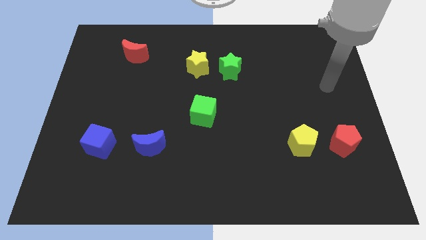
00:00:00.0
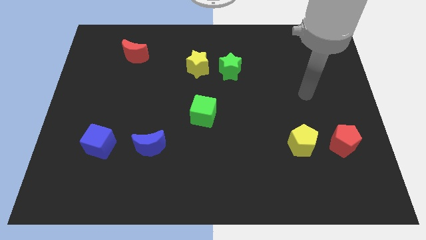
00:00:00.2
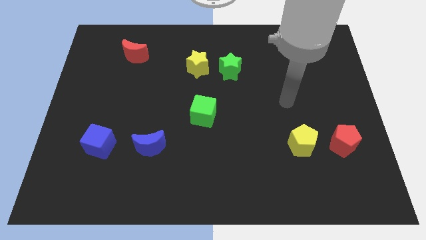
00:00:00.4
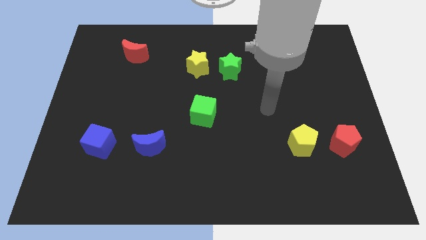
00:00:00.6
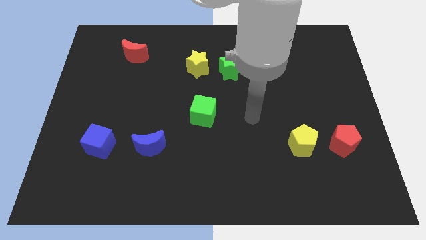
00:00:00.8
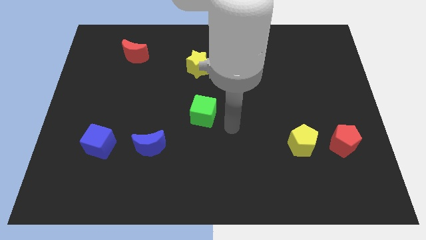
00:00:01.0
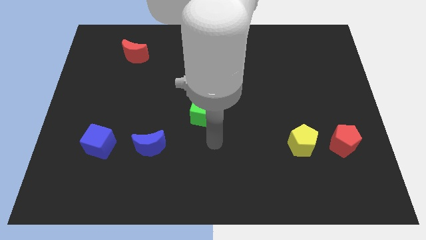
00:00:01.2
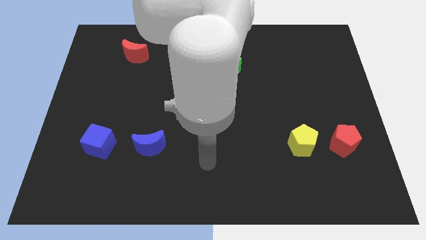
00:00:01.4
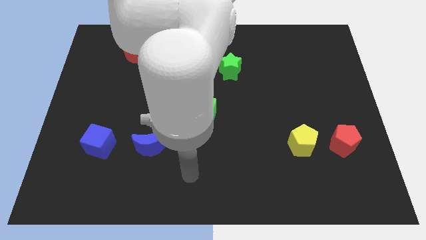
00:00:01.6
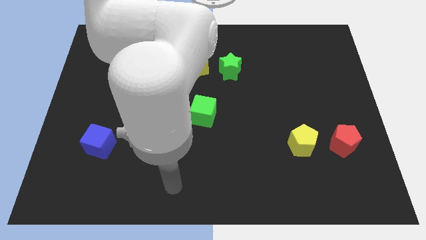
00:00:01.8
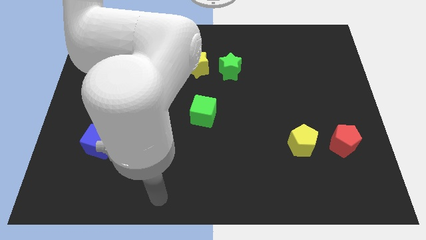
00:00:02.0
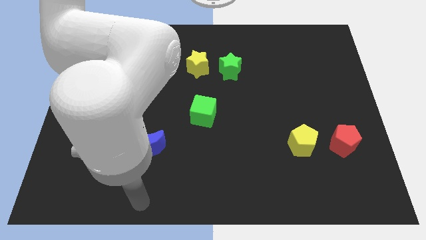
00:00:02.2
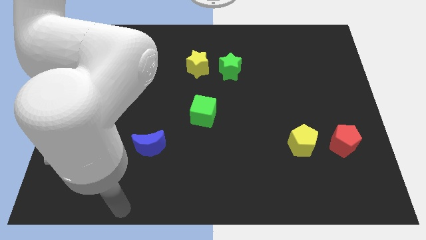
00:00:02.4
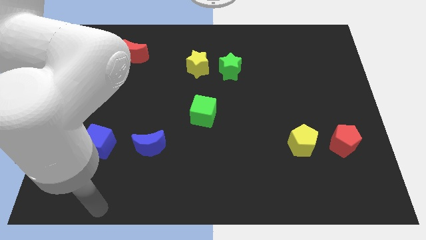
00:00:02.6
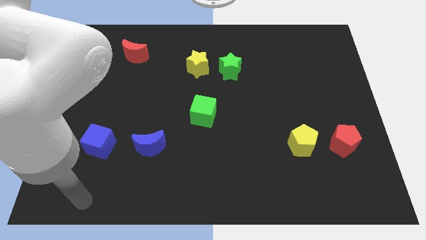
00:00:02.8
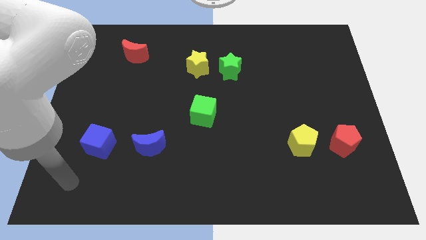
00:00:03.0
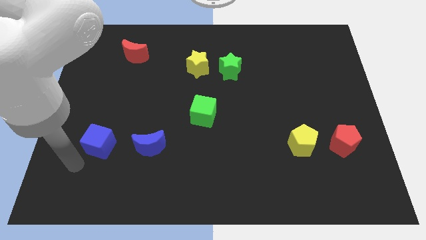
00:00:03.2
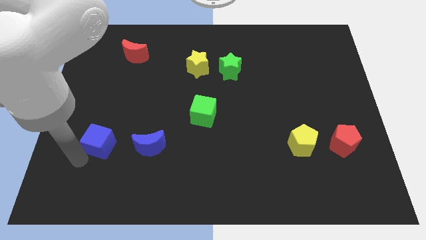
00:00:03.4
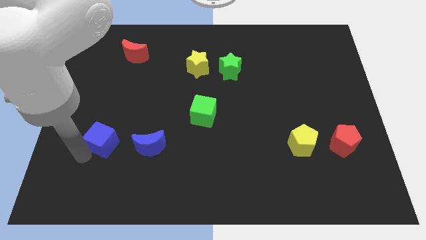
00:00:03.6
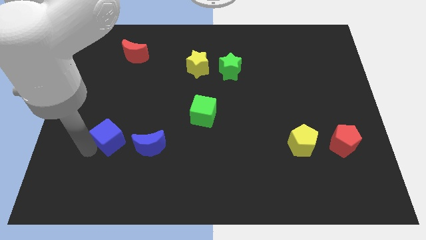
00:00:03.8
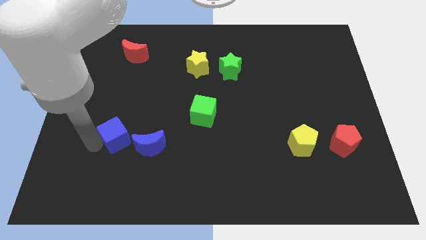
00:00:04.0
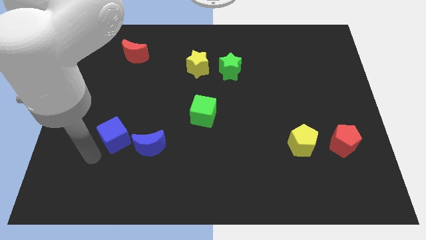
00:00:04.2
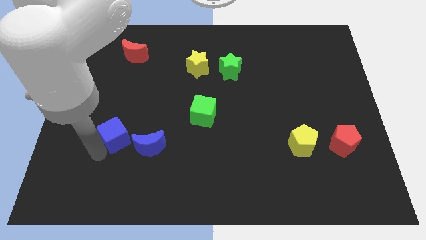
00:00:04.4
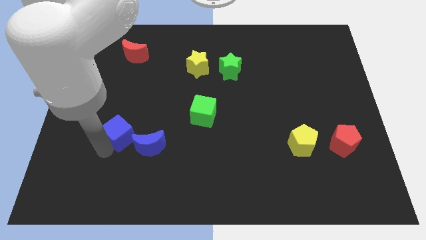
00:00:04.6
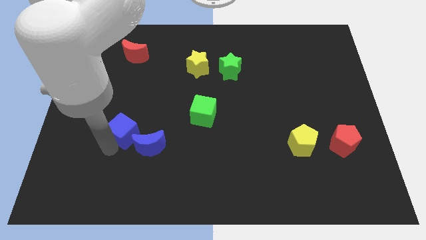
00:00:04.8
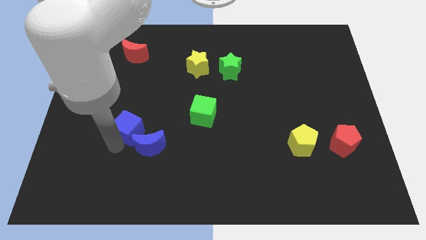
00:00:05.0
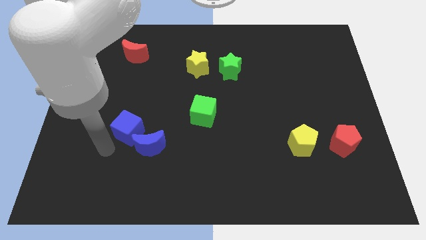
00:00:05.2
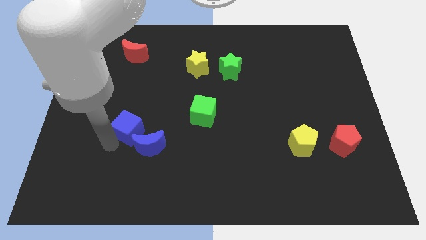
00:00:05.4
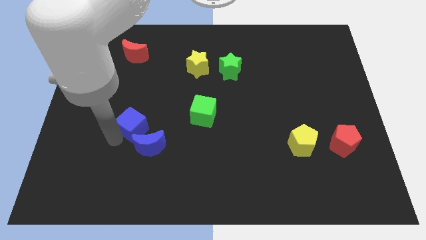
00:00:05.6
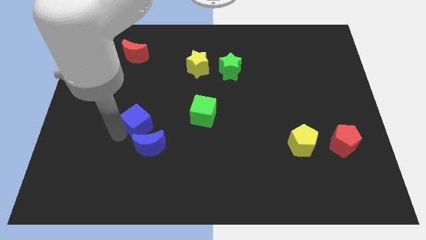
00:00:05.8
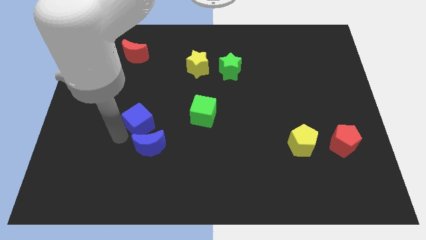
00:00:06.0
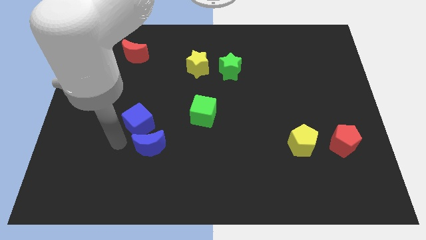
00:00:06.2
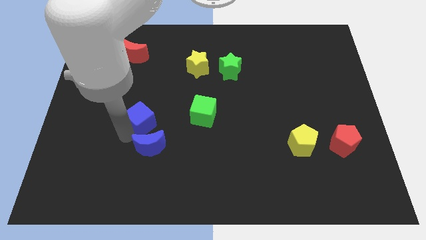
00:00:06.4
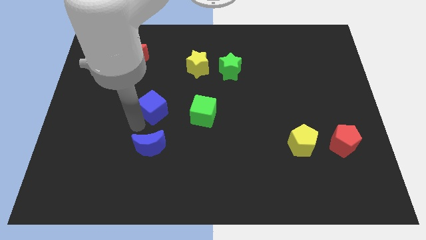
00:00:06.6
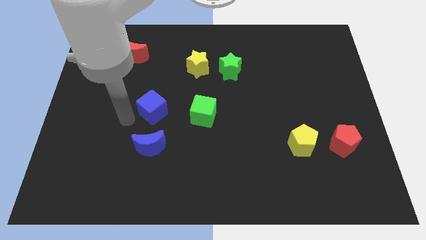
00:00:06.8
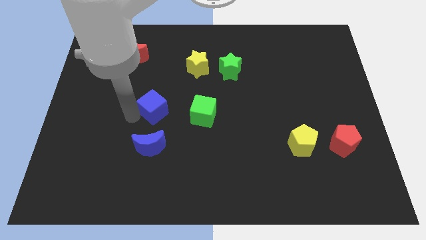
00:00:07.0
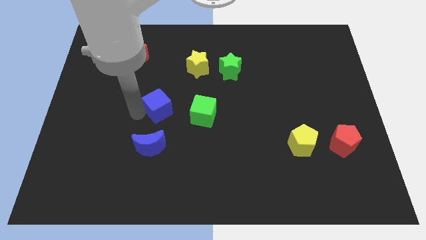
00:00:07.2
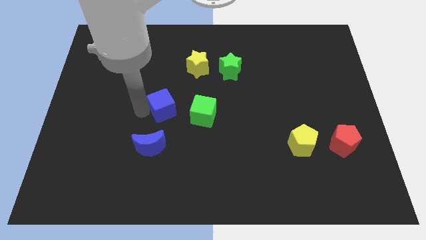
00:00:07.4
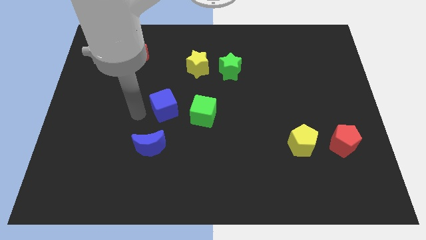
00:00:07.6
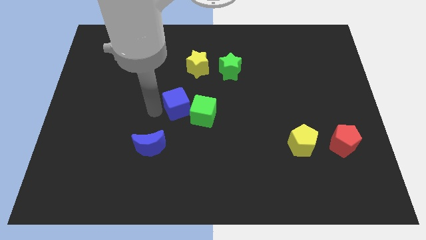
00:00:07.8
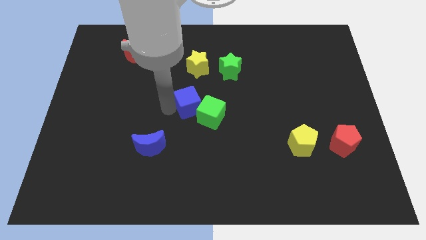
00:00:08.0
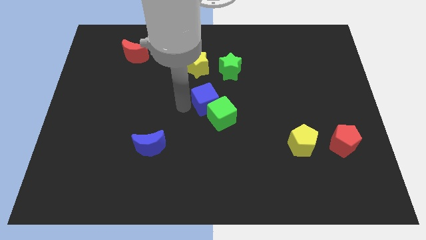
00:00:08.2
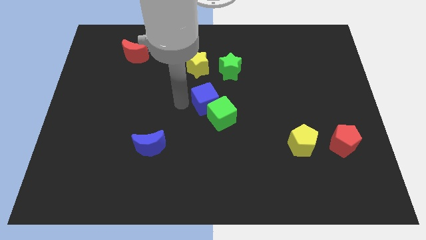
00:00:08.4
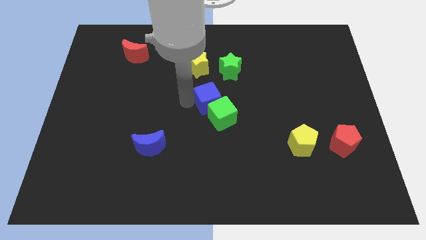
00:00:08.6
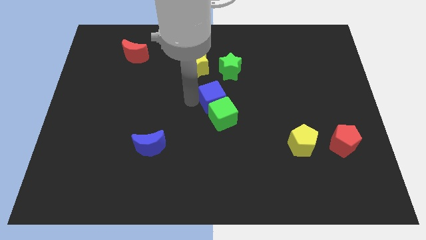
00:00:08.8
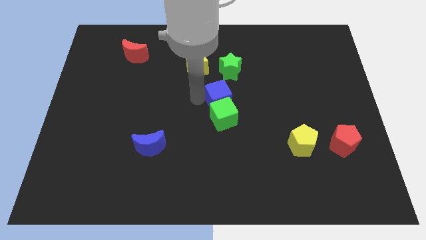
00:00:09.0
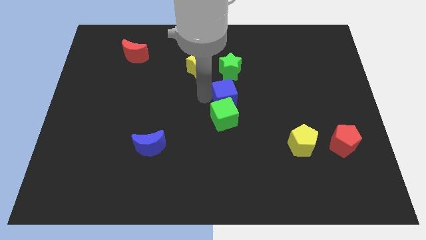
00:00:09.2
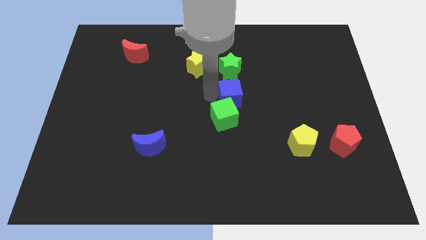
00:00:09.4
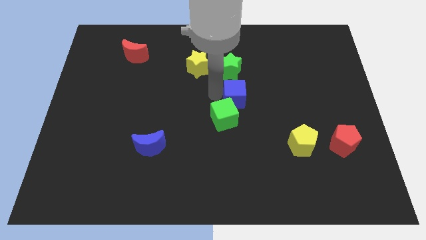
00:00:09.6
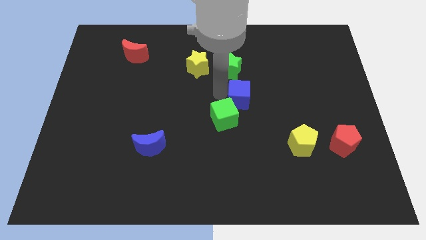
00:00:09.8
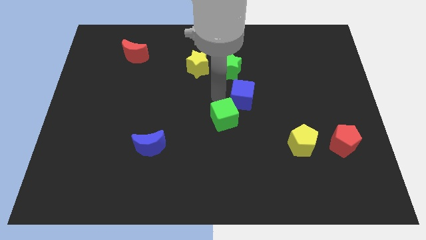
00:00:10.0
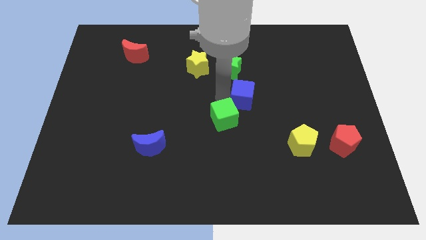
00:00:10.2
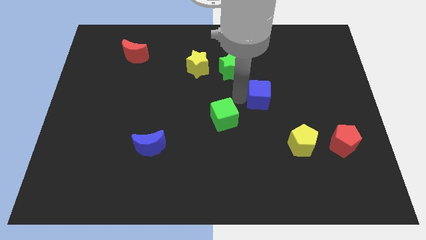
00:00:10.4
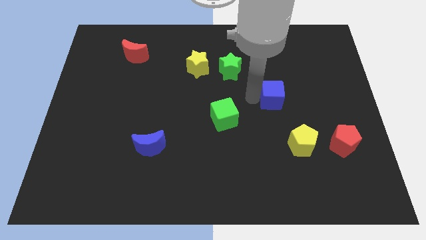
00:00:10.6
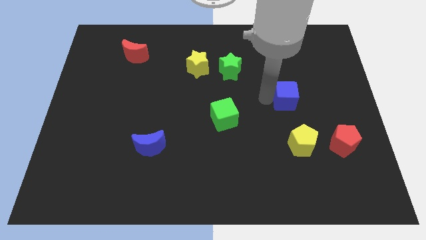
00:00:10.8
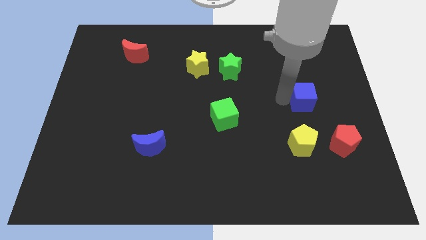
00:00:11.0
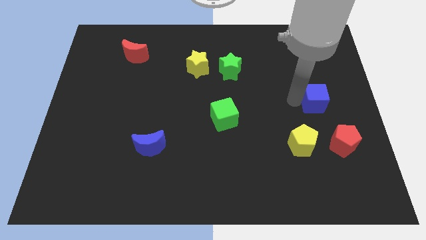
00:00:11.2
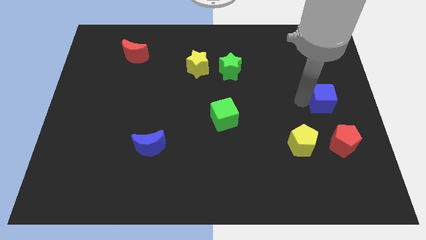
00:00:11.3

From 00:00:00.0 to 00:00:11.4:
move the blue cube to the right side of the board
